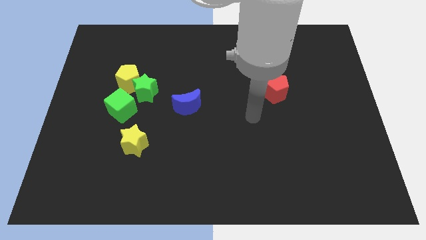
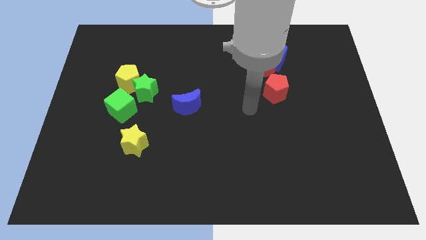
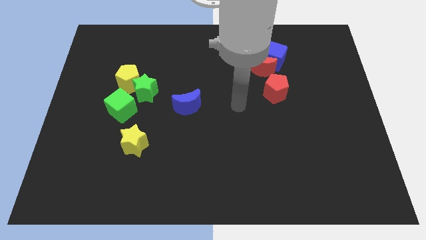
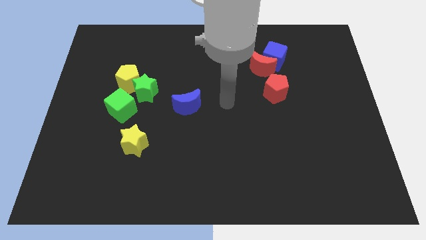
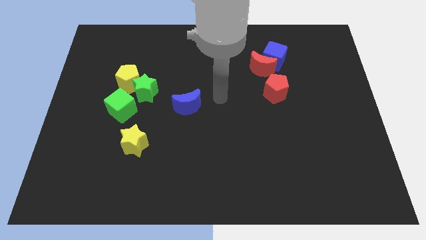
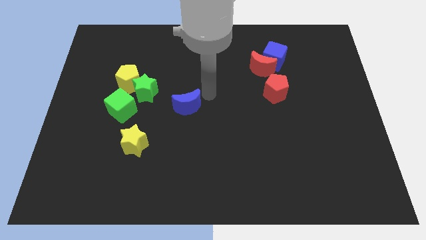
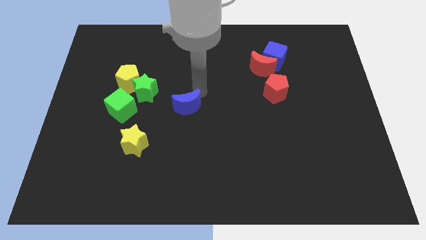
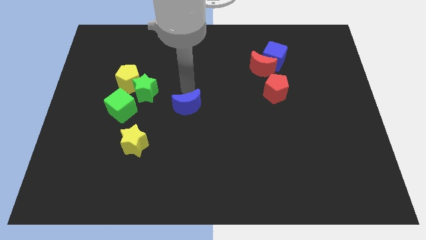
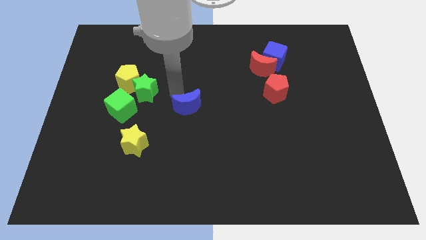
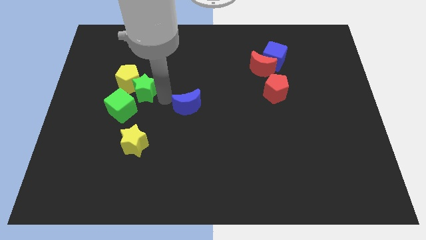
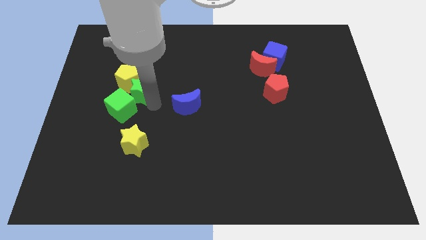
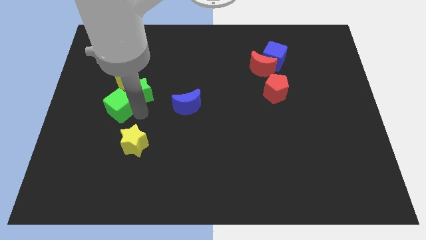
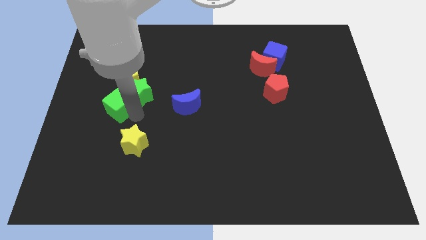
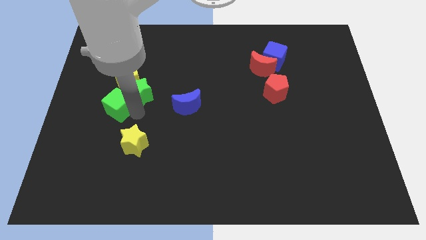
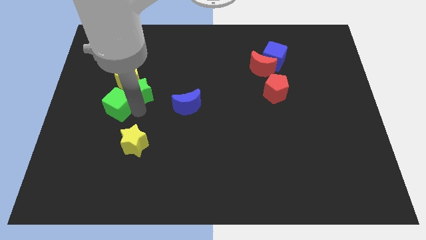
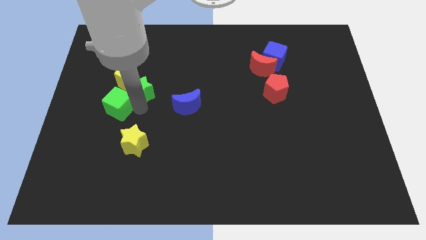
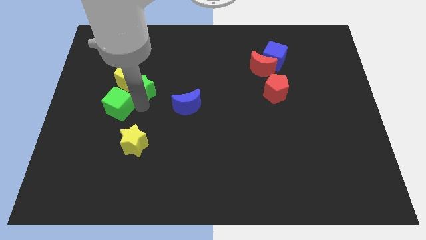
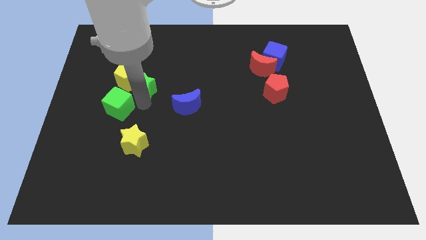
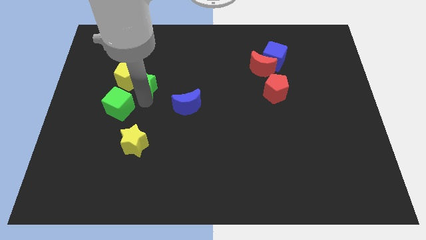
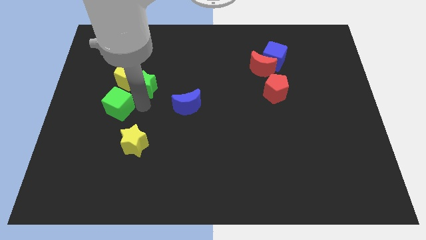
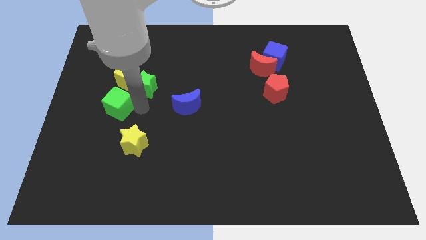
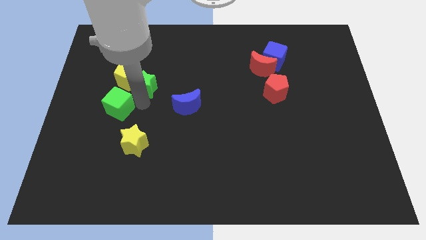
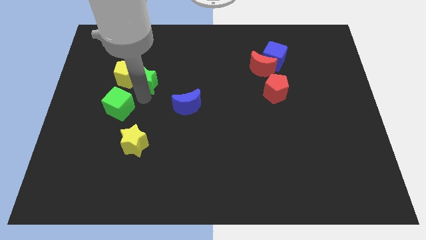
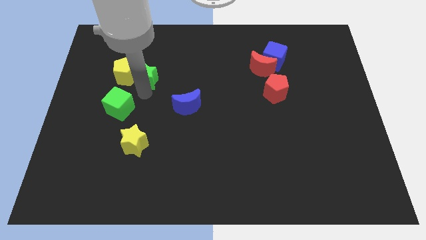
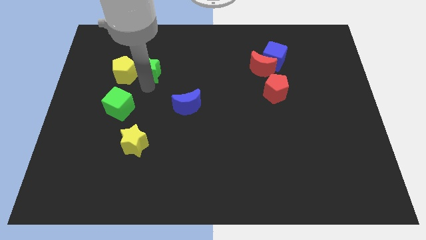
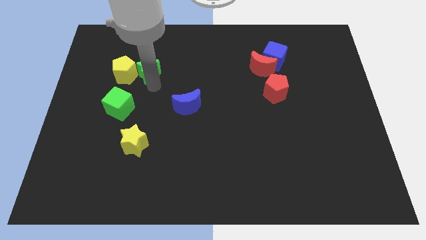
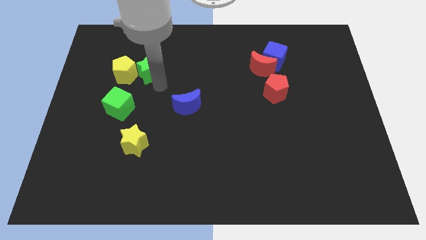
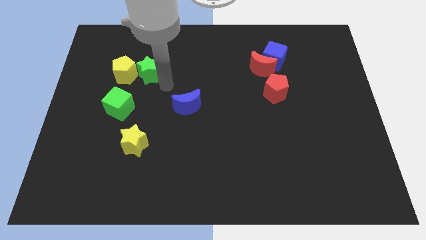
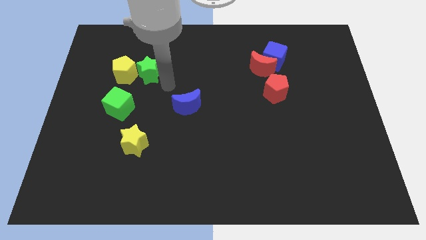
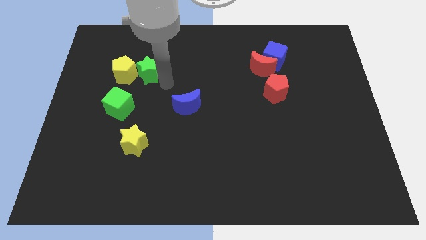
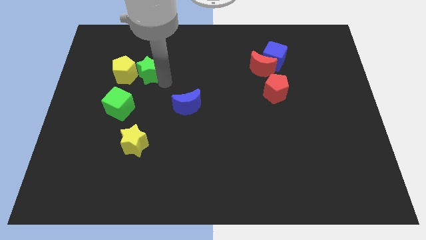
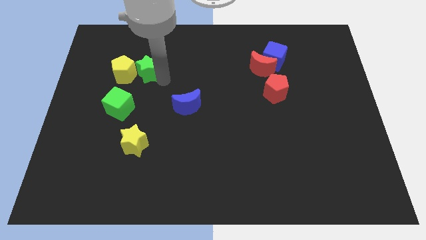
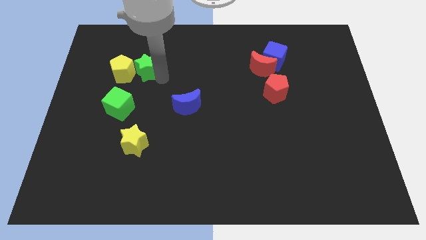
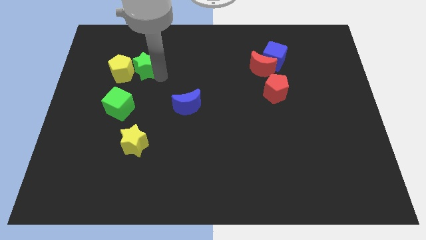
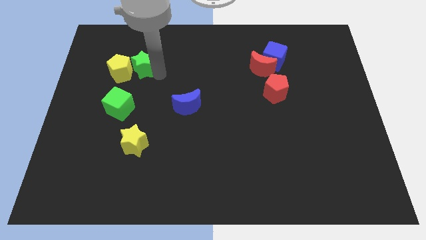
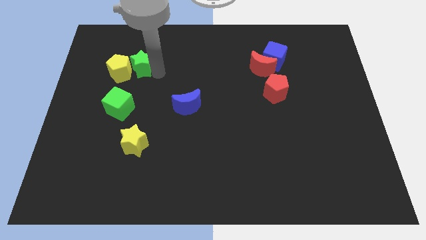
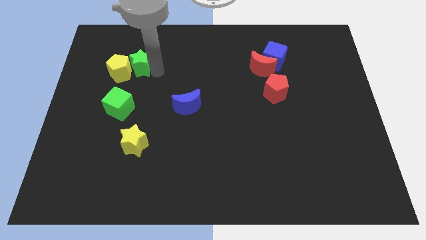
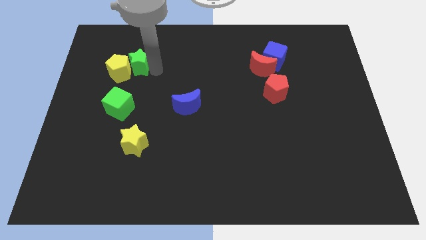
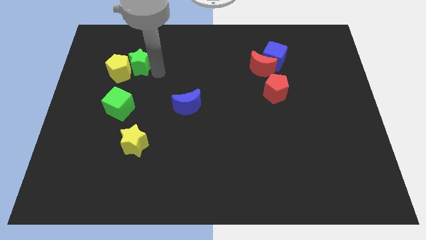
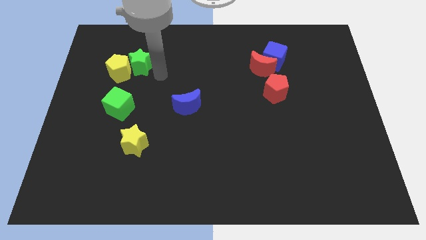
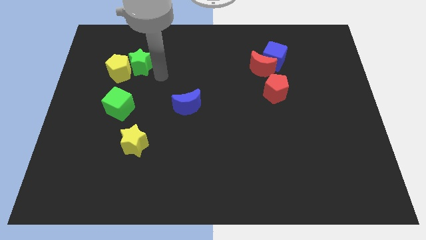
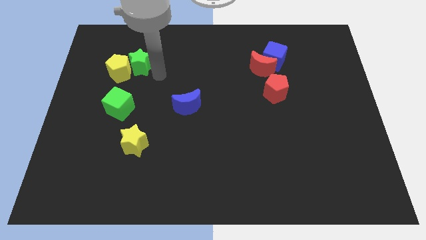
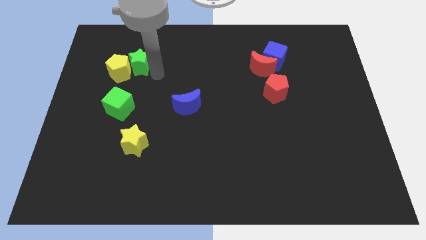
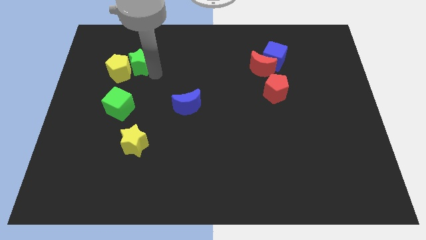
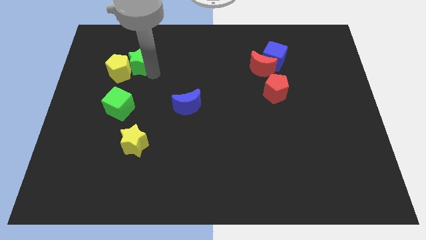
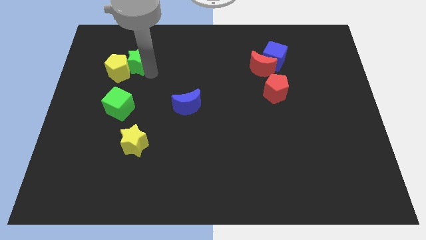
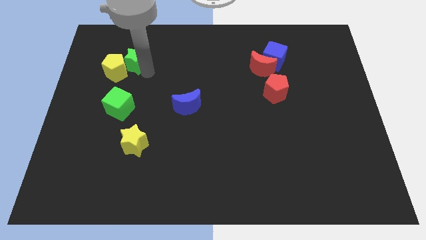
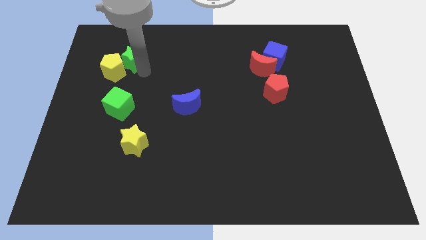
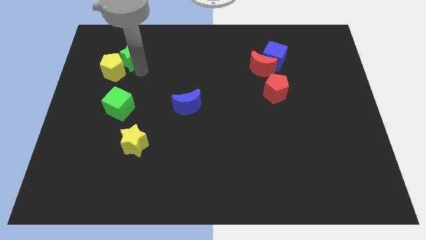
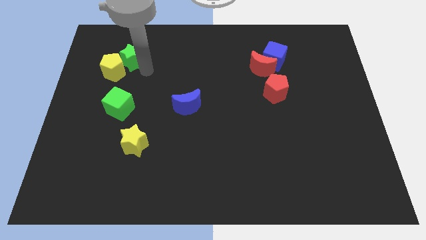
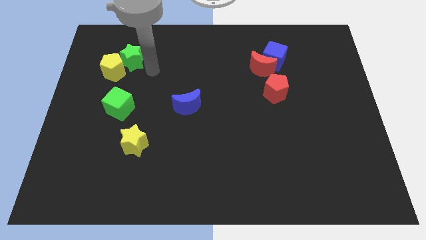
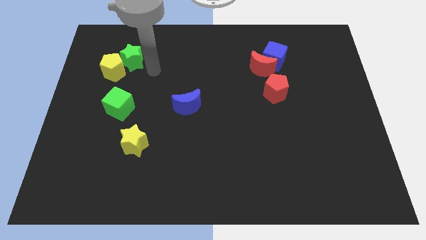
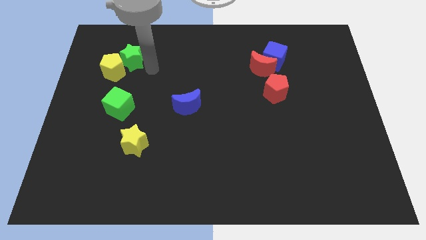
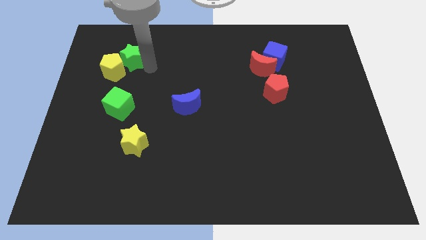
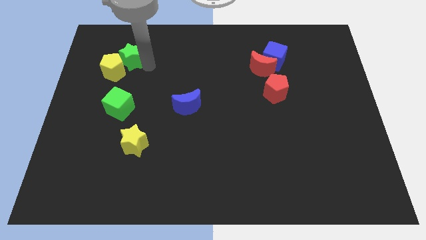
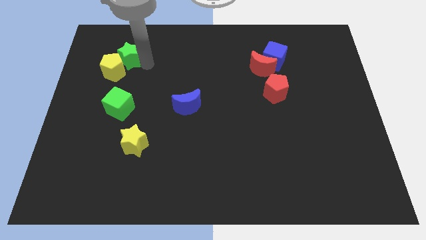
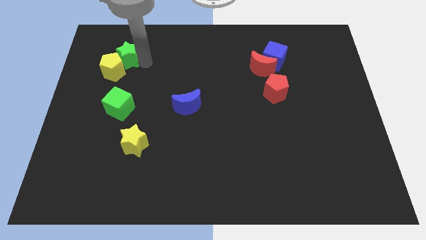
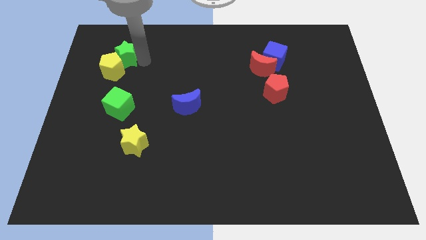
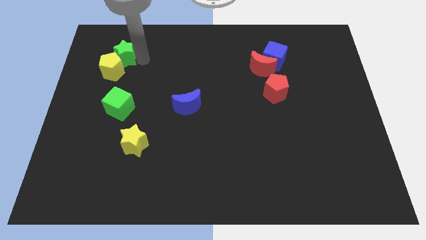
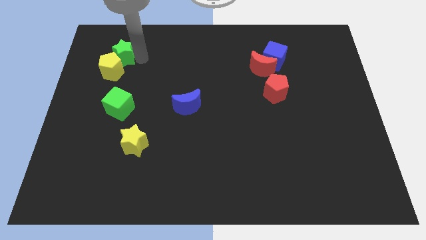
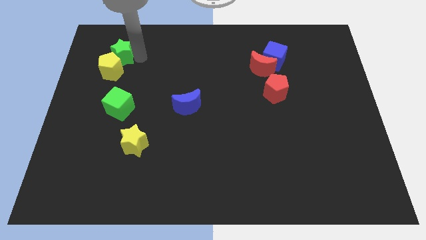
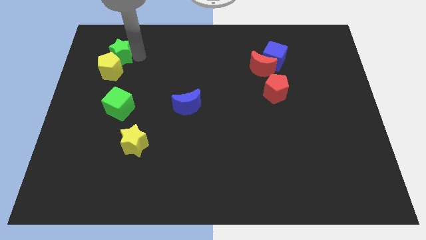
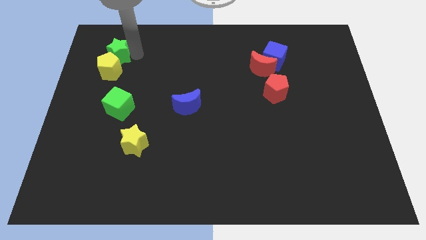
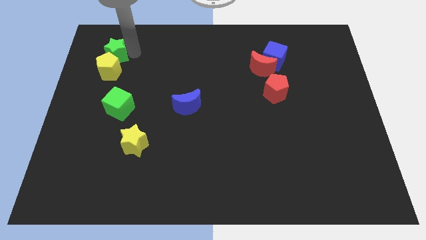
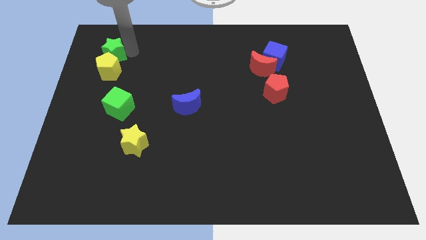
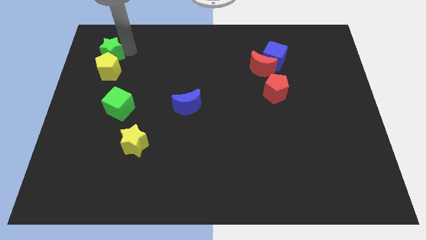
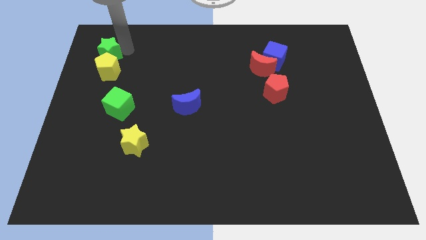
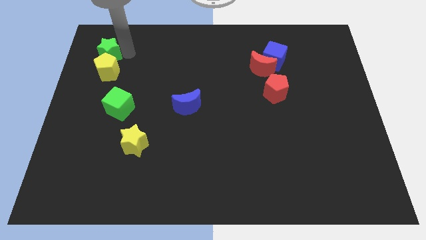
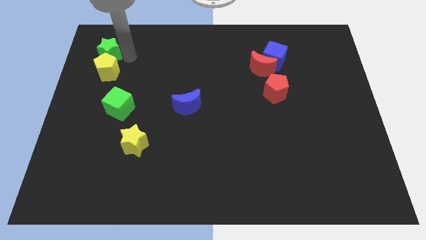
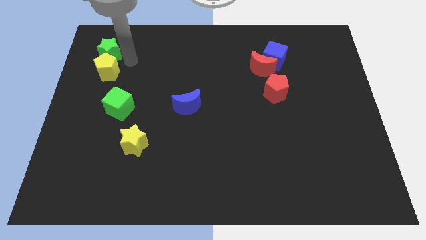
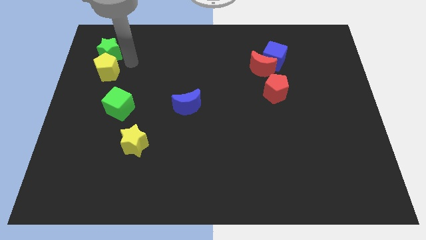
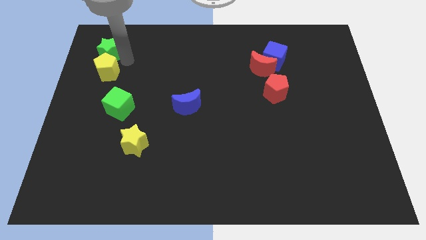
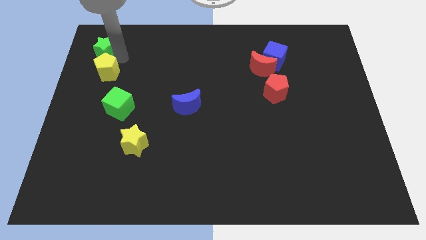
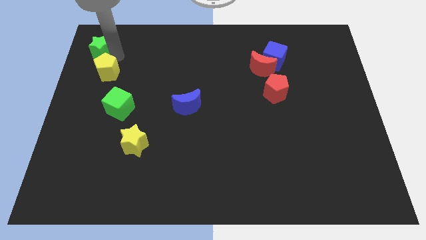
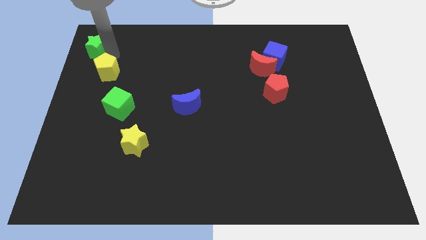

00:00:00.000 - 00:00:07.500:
put the green star to the top left corner

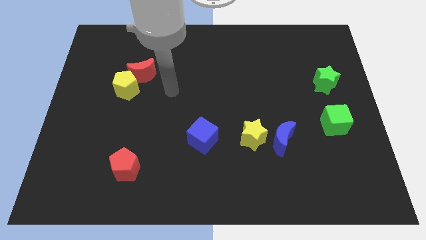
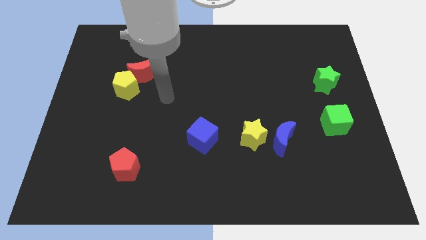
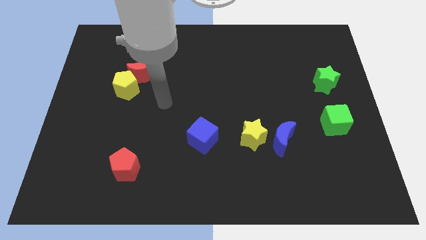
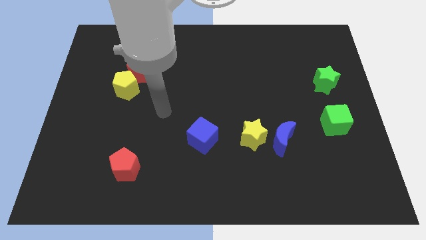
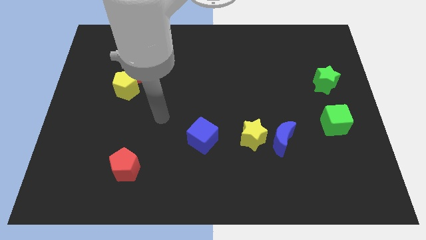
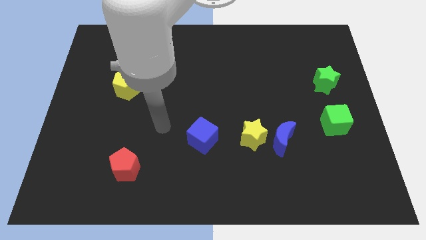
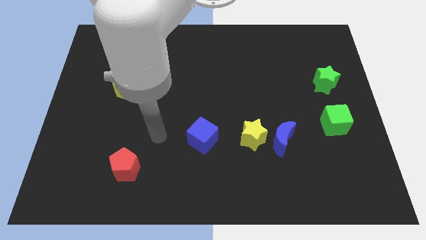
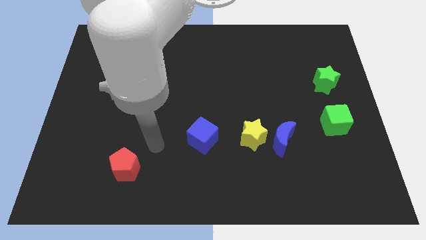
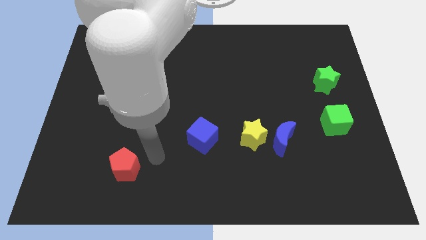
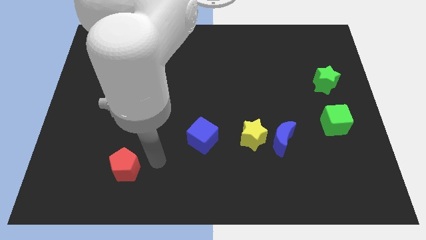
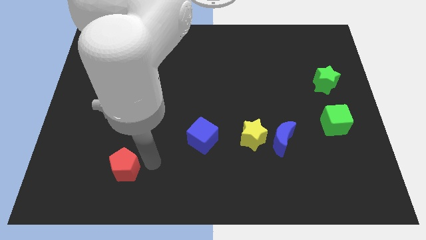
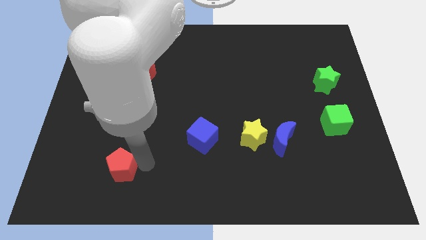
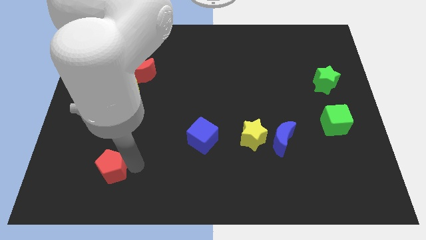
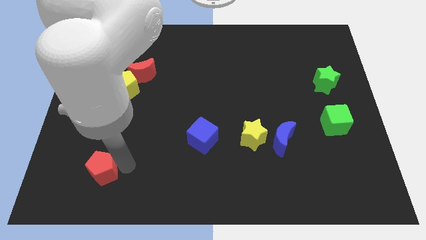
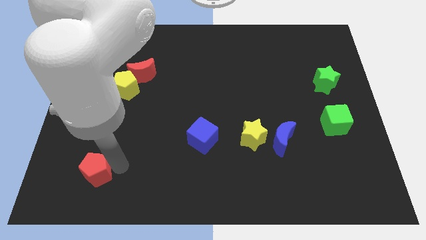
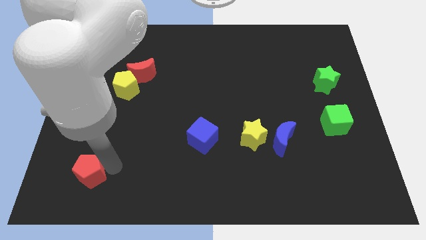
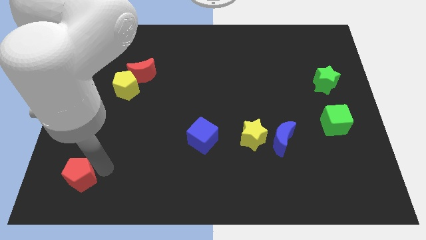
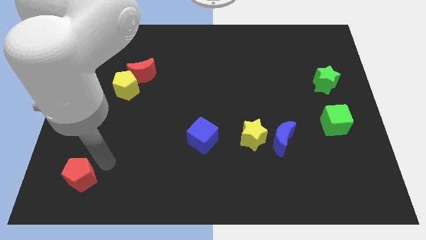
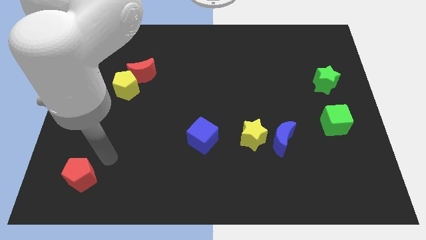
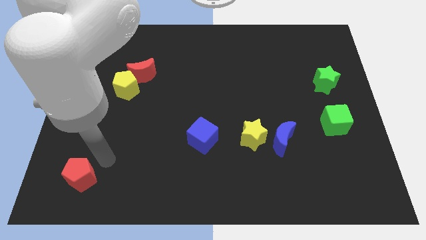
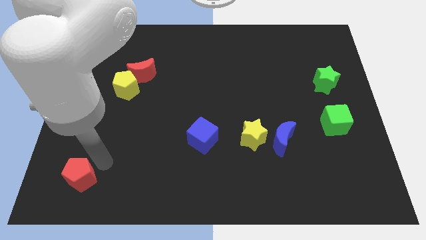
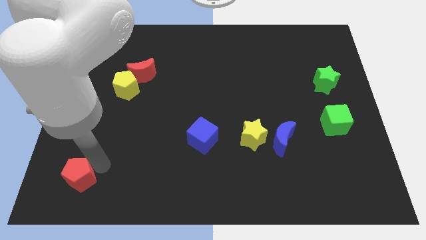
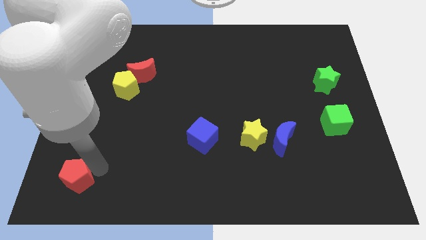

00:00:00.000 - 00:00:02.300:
slide the red pentagon to the bottom left corner
